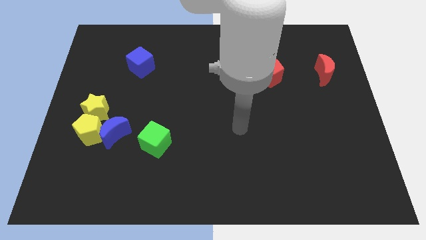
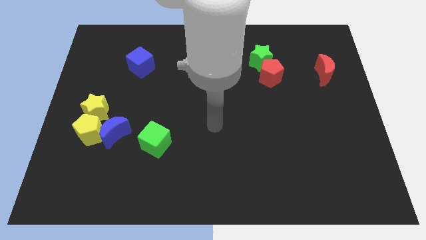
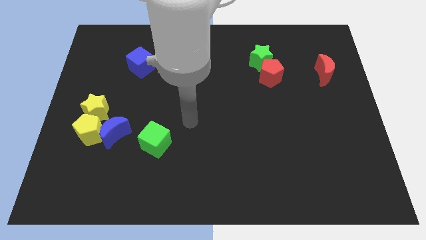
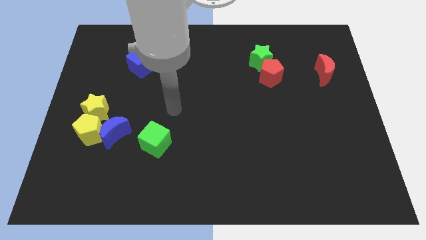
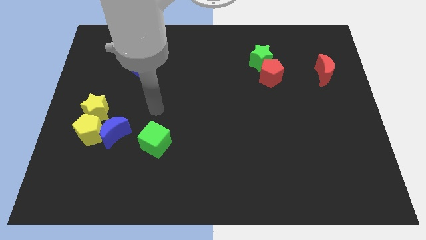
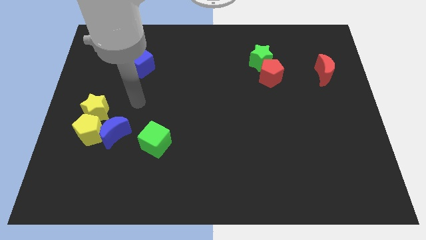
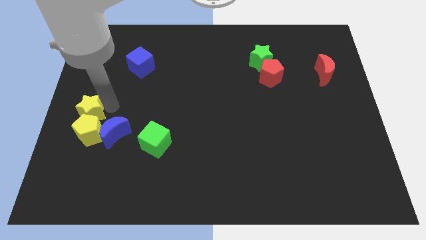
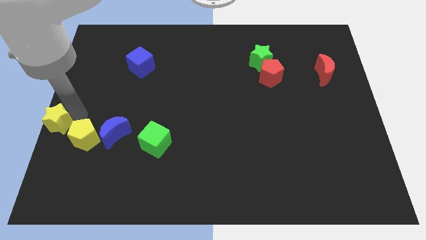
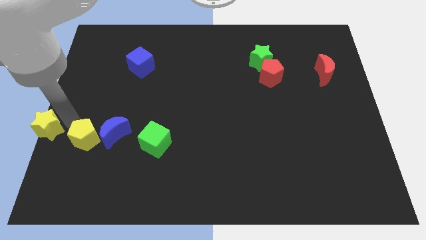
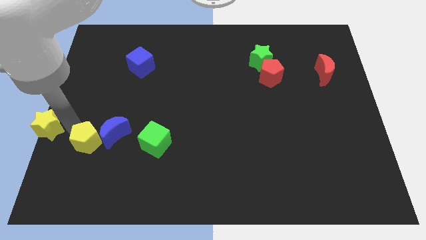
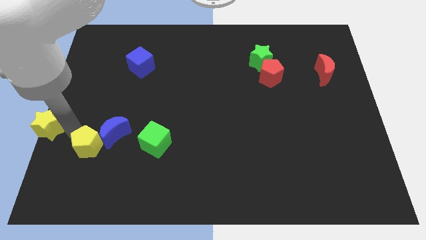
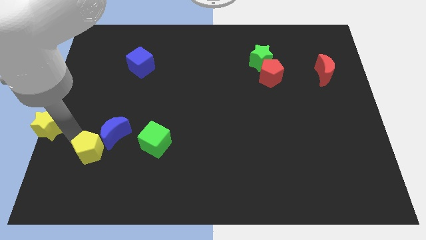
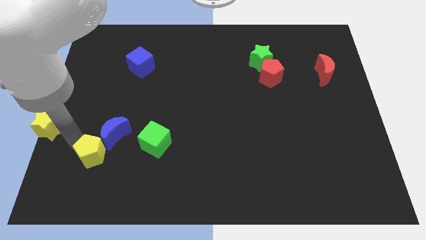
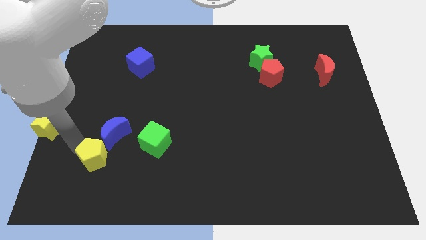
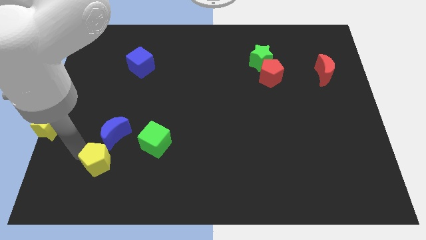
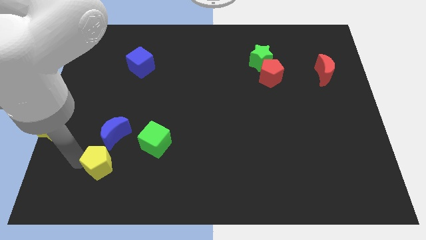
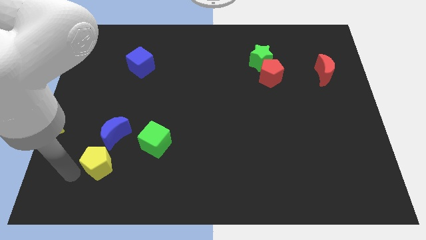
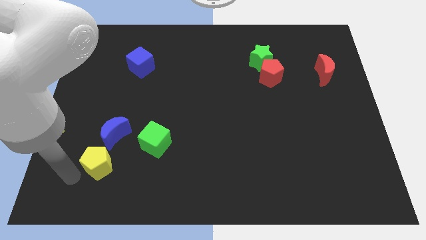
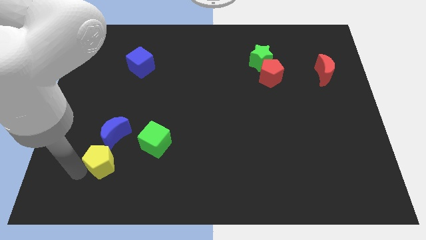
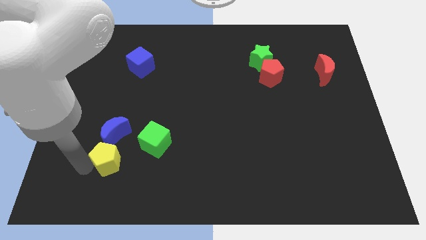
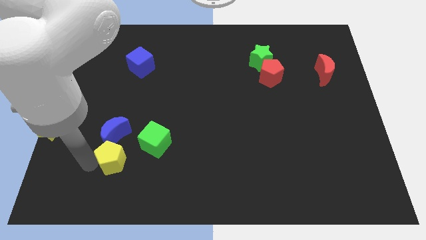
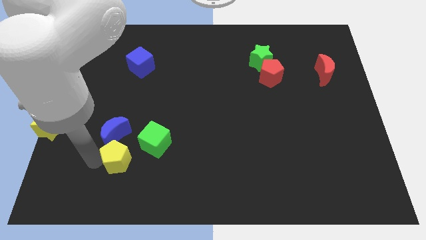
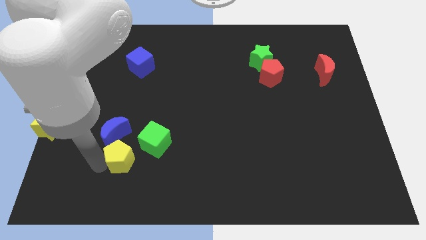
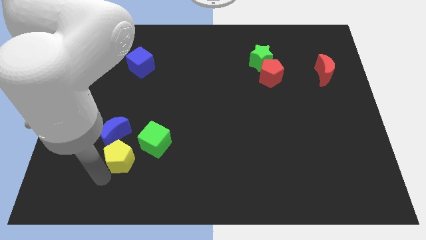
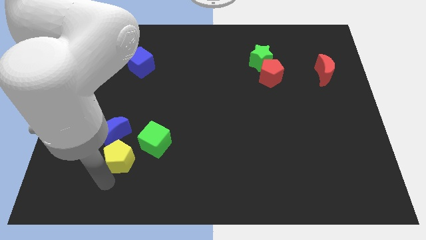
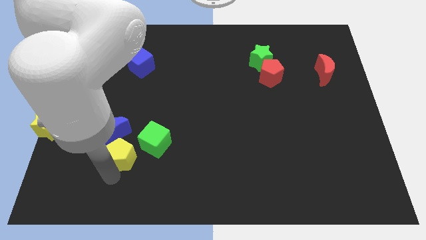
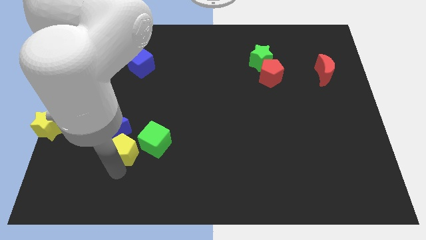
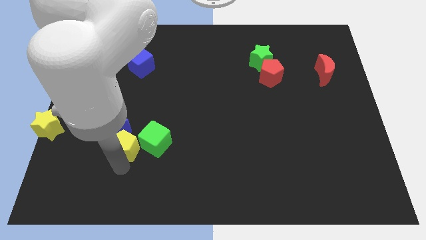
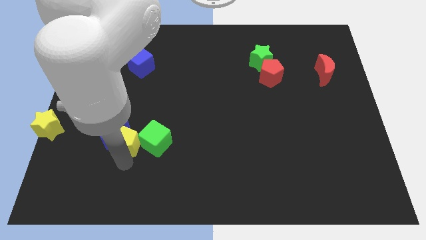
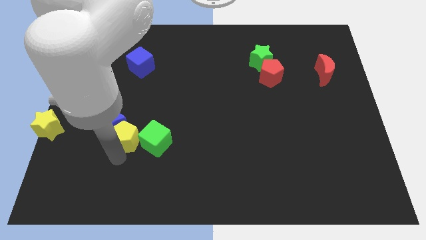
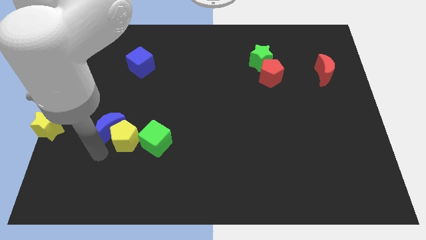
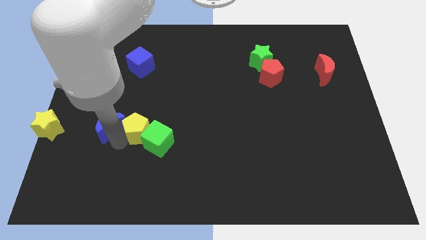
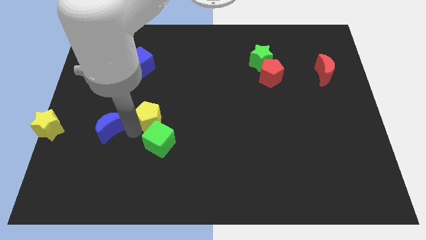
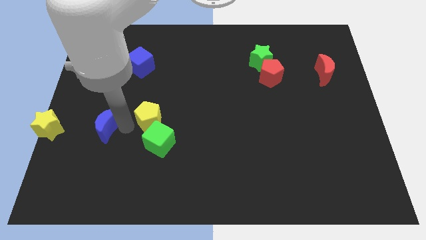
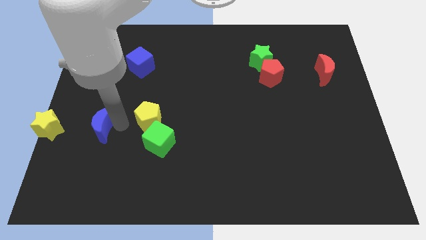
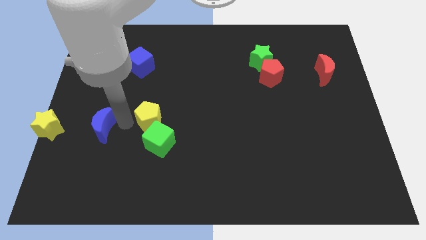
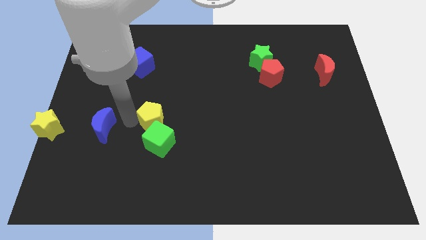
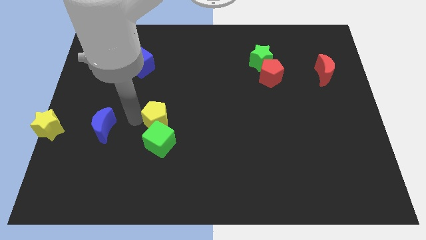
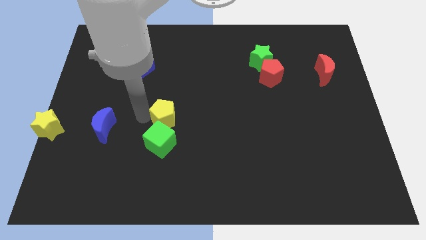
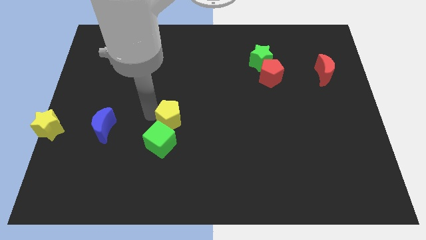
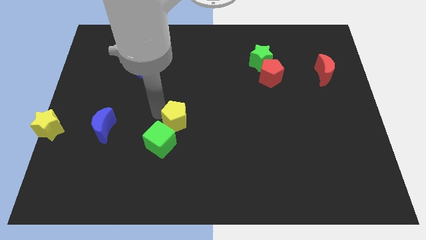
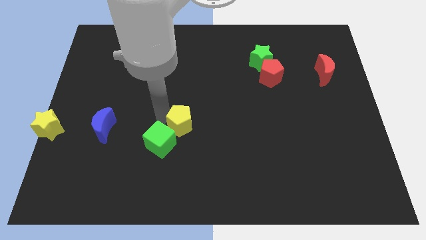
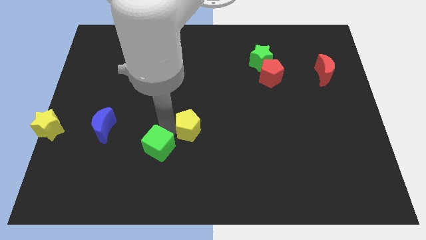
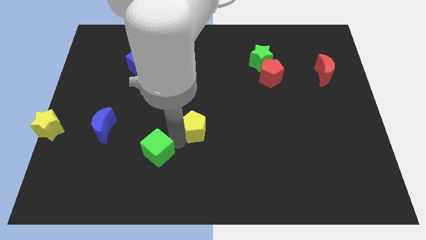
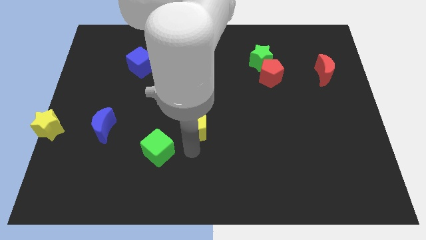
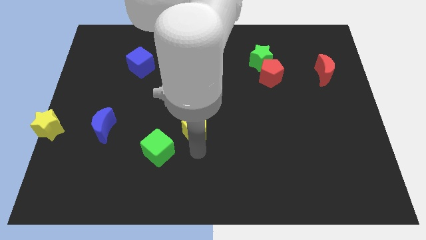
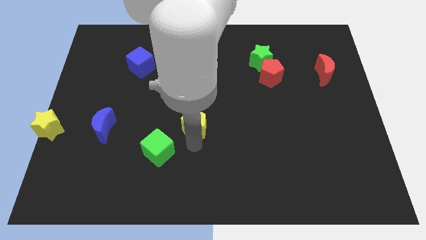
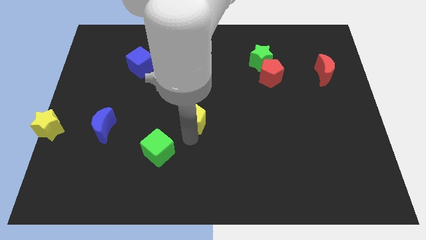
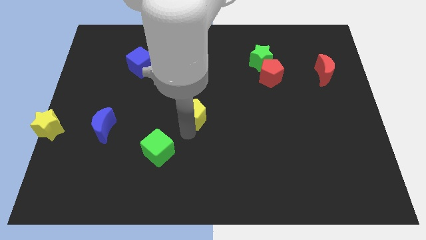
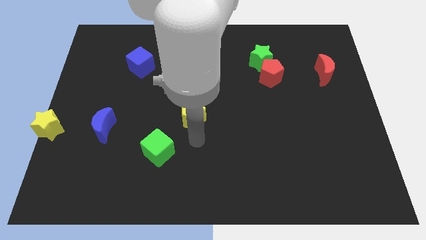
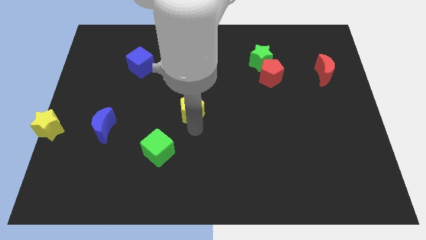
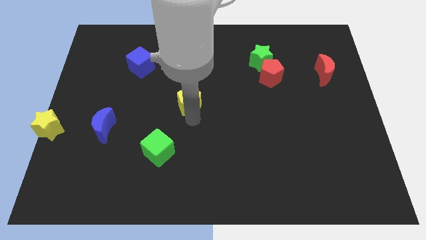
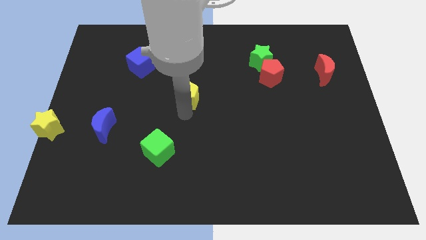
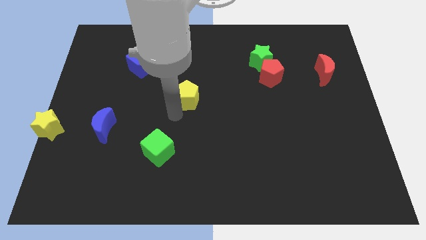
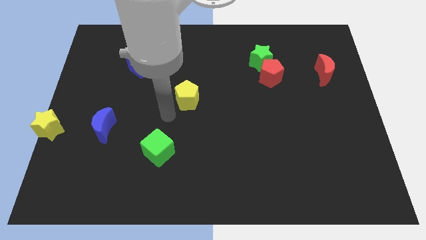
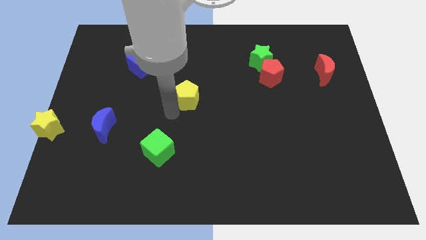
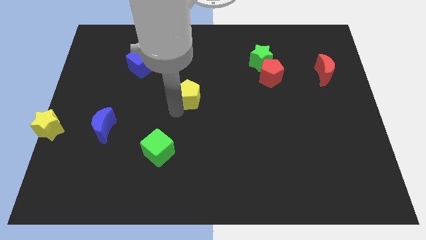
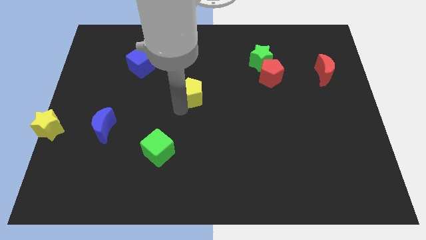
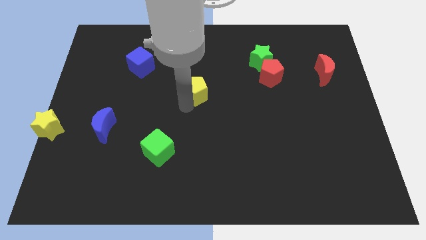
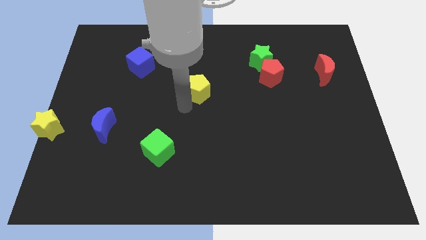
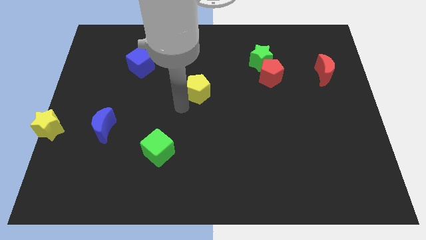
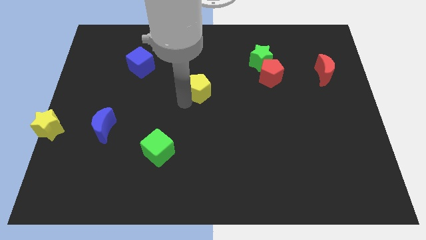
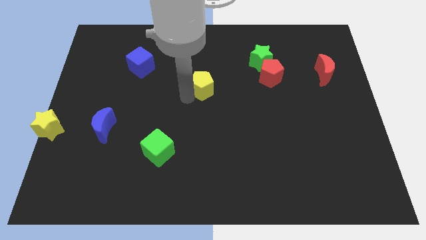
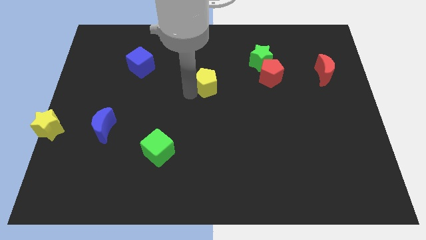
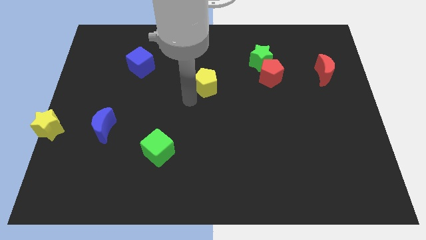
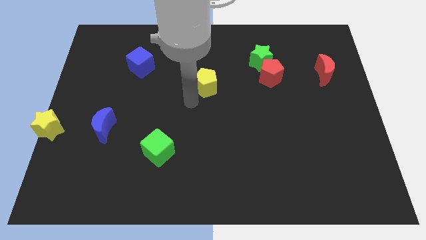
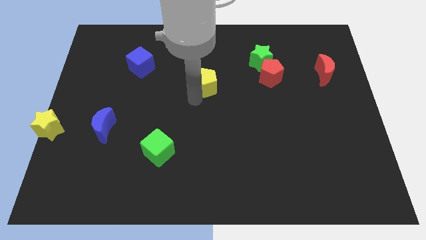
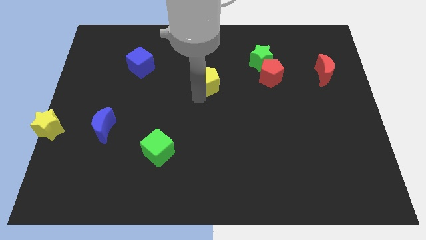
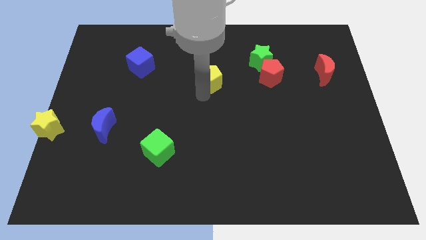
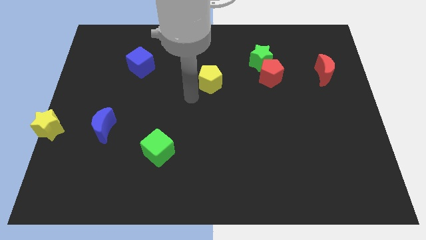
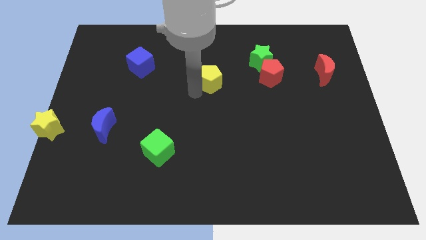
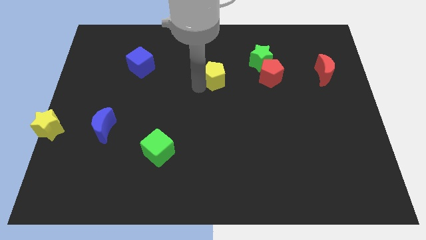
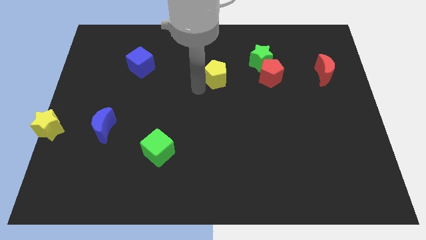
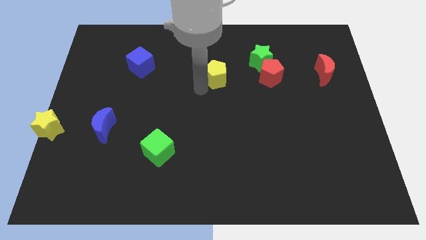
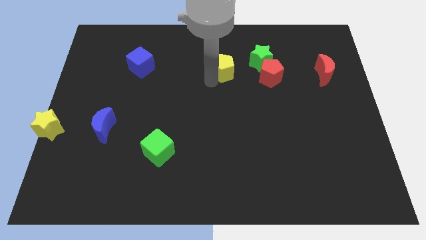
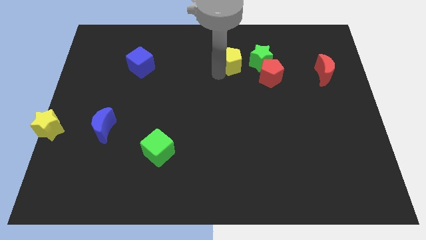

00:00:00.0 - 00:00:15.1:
move the yellow pentagon to the top left of the red pentagon
